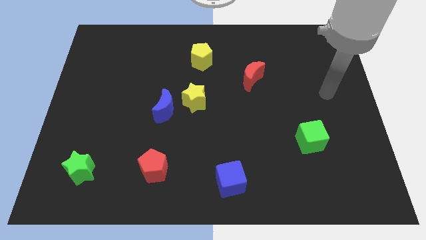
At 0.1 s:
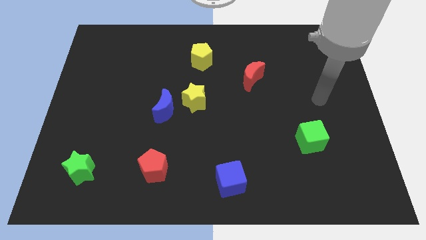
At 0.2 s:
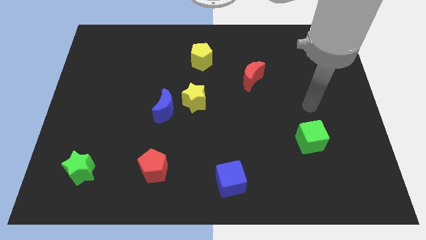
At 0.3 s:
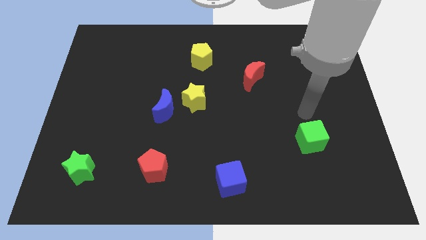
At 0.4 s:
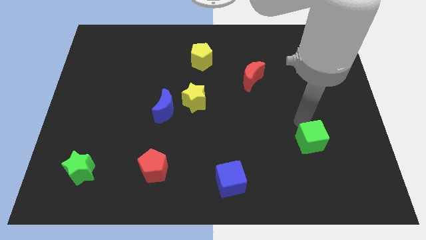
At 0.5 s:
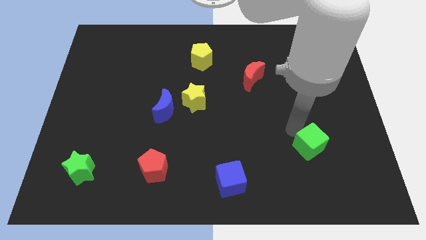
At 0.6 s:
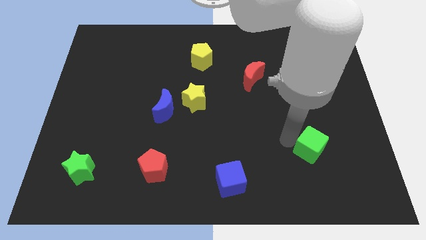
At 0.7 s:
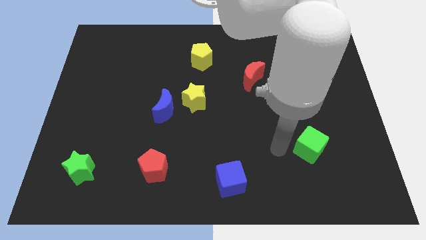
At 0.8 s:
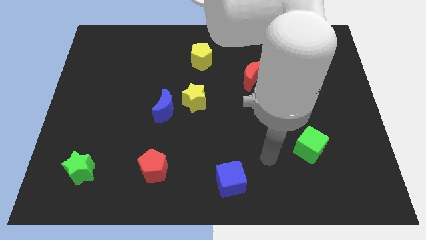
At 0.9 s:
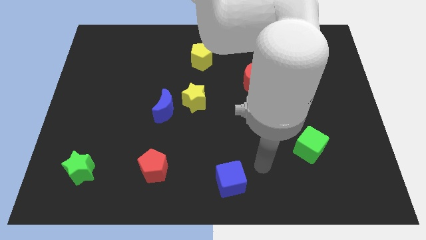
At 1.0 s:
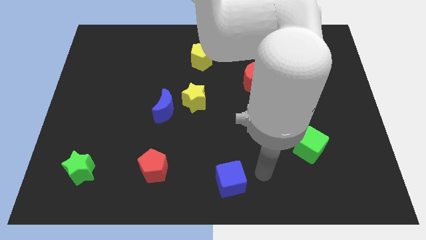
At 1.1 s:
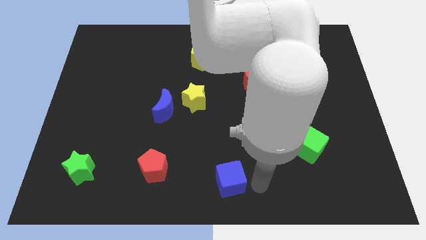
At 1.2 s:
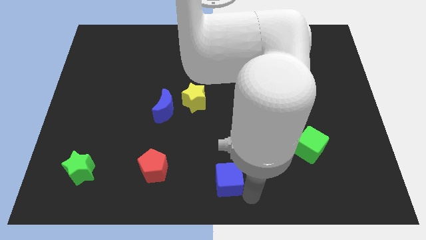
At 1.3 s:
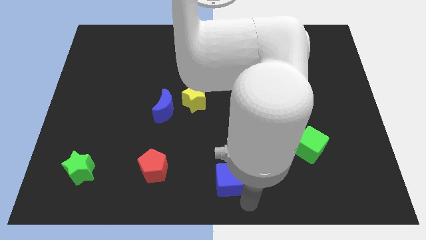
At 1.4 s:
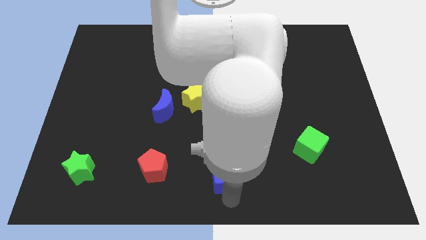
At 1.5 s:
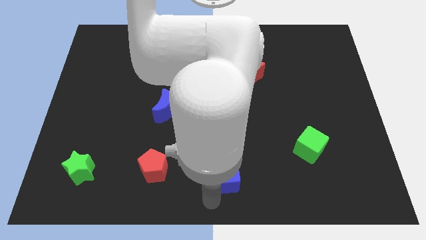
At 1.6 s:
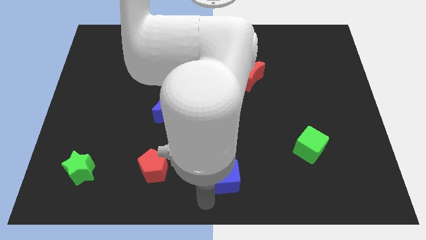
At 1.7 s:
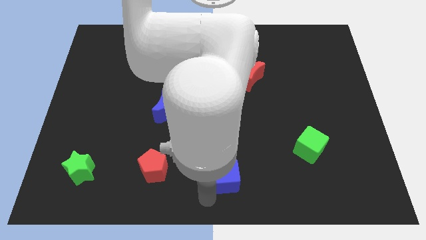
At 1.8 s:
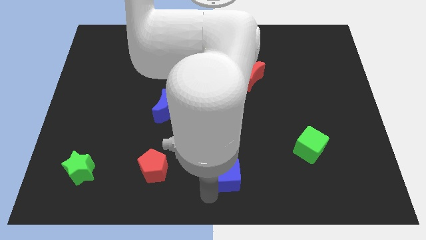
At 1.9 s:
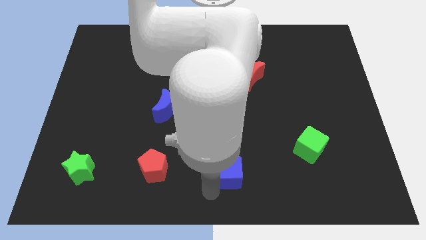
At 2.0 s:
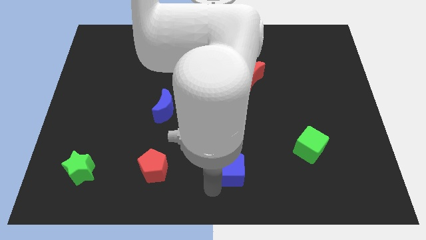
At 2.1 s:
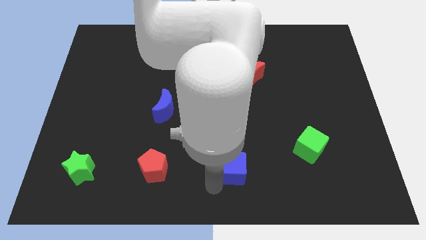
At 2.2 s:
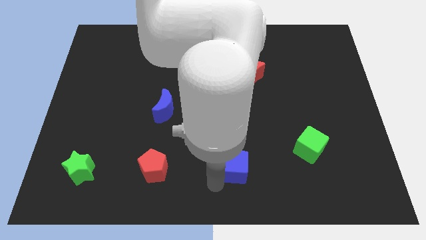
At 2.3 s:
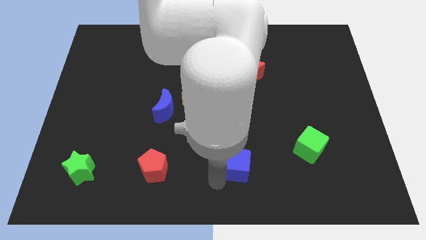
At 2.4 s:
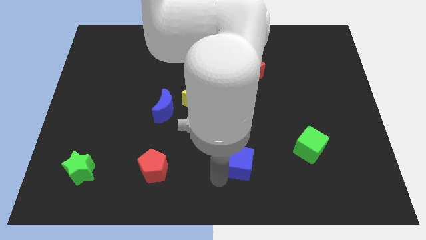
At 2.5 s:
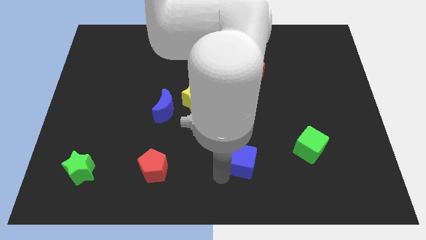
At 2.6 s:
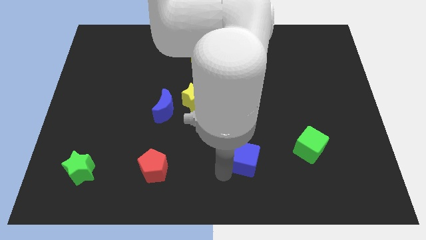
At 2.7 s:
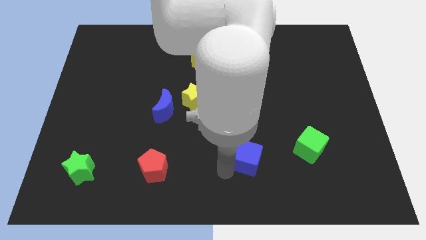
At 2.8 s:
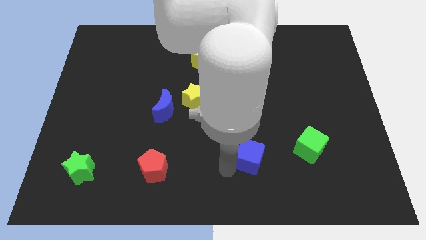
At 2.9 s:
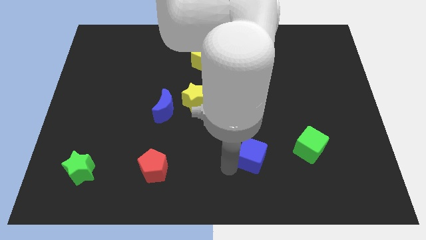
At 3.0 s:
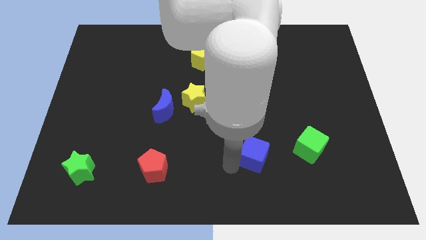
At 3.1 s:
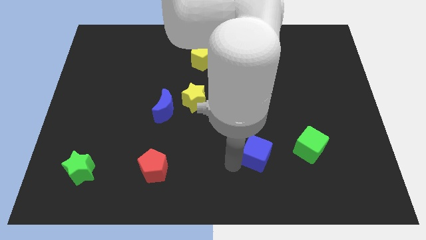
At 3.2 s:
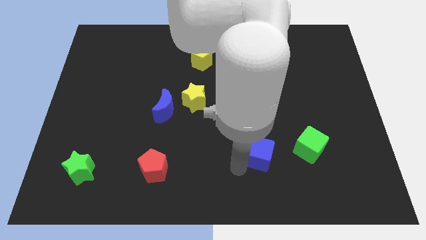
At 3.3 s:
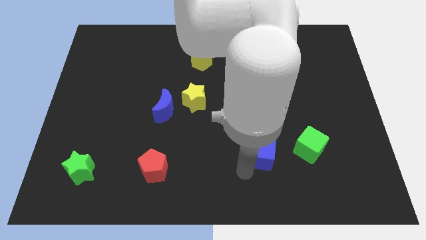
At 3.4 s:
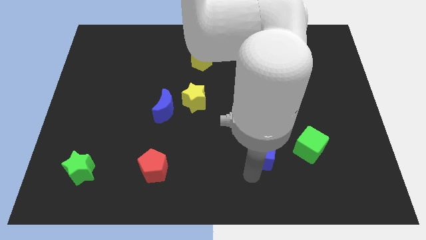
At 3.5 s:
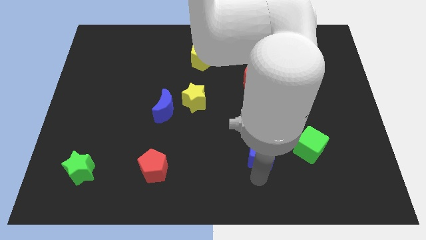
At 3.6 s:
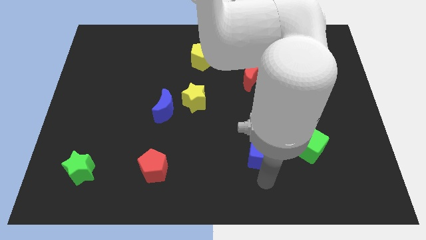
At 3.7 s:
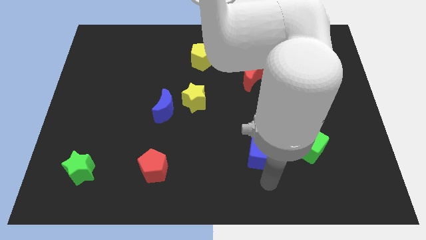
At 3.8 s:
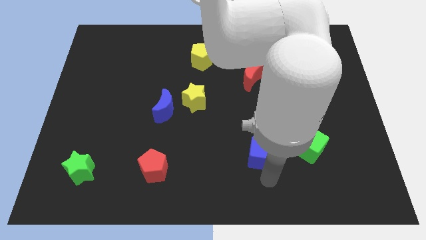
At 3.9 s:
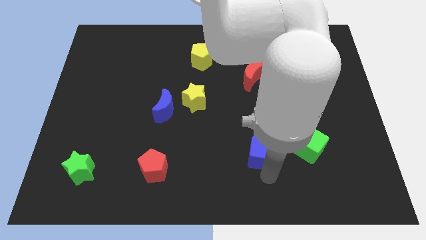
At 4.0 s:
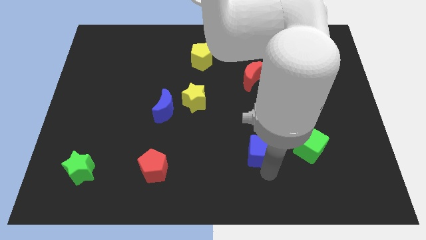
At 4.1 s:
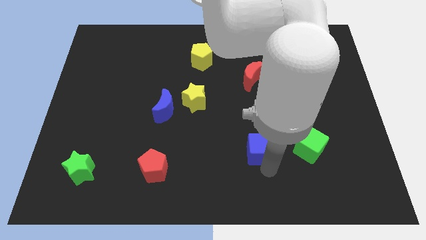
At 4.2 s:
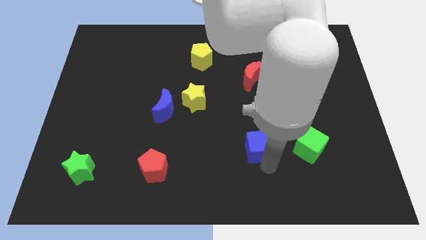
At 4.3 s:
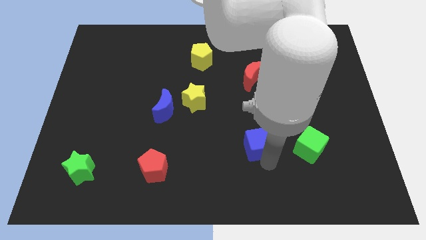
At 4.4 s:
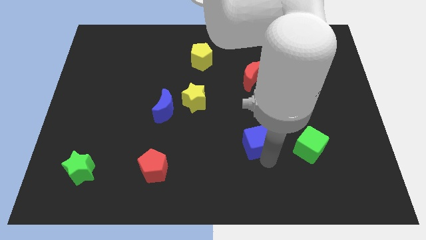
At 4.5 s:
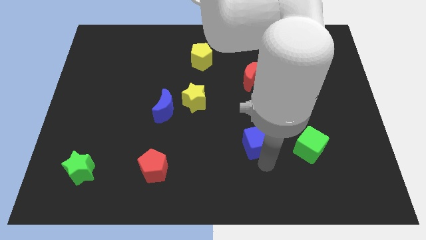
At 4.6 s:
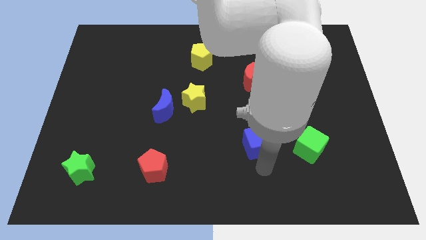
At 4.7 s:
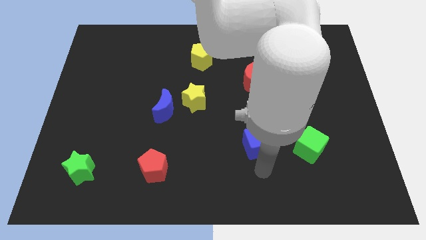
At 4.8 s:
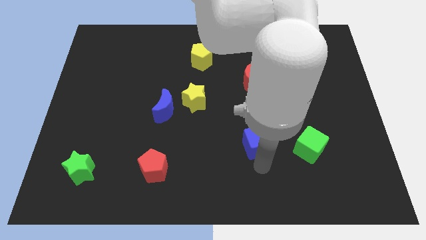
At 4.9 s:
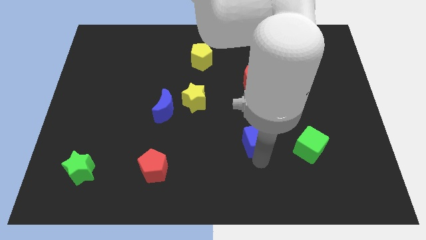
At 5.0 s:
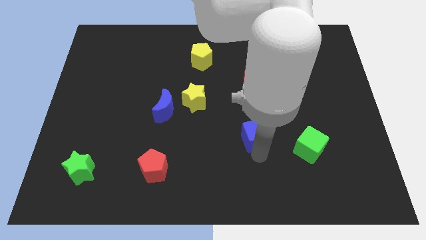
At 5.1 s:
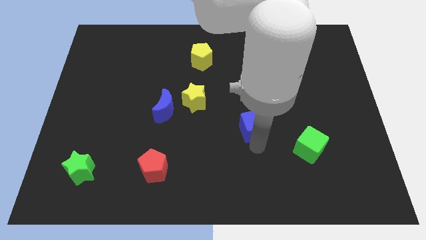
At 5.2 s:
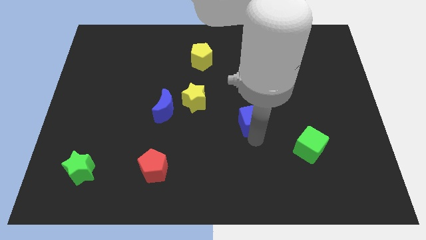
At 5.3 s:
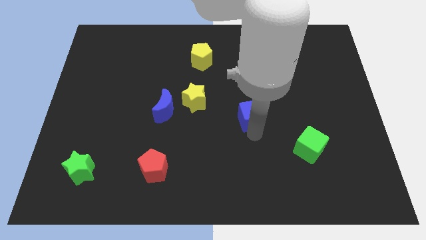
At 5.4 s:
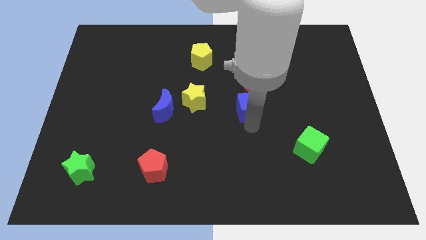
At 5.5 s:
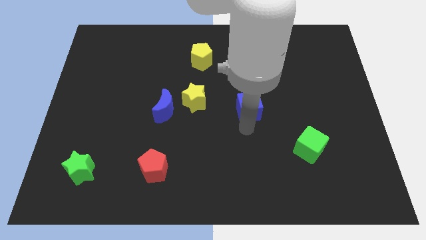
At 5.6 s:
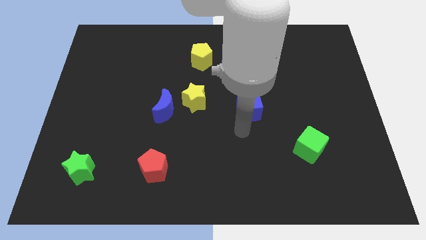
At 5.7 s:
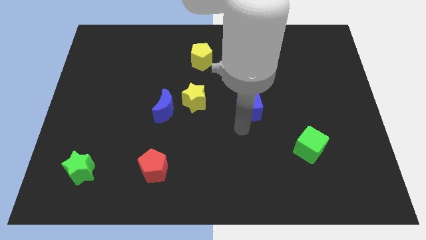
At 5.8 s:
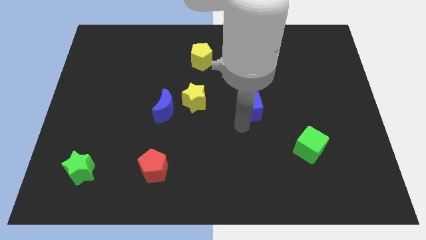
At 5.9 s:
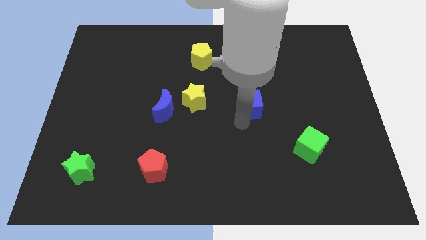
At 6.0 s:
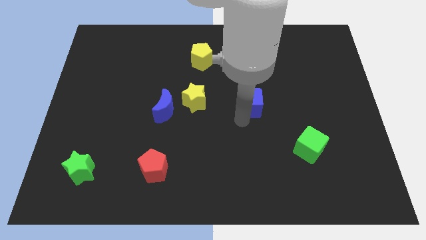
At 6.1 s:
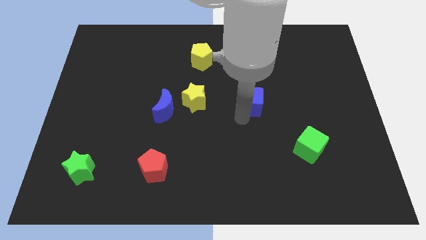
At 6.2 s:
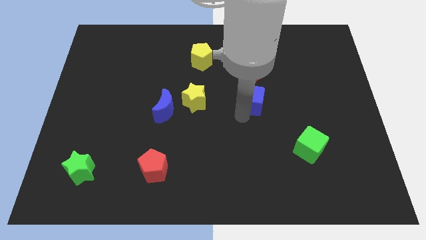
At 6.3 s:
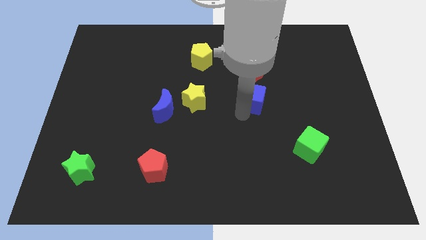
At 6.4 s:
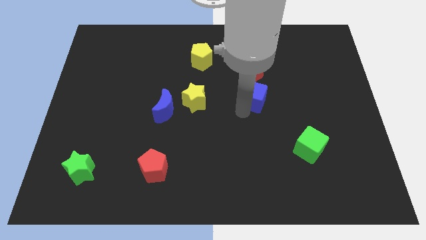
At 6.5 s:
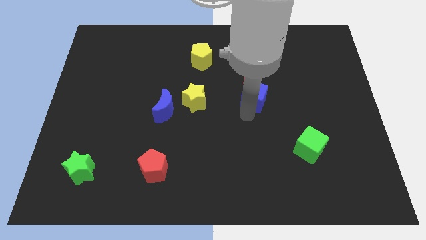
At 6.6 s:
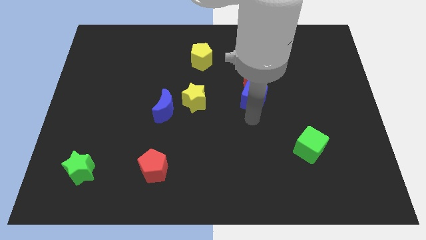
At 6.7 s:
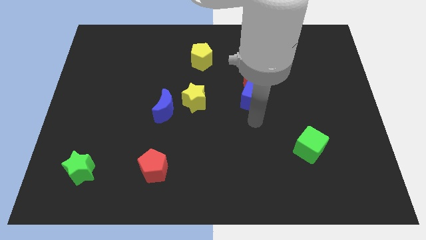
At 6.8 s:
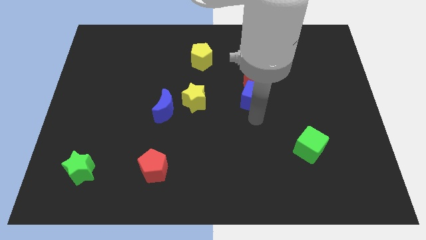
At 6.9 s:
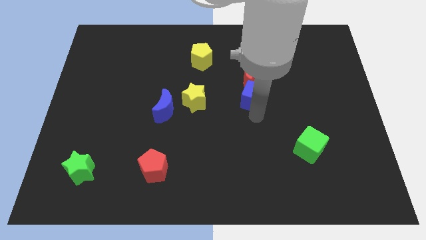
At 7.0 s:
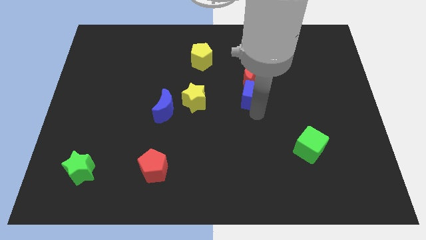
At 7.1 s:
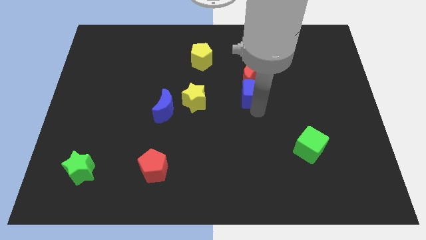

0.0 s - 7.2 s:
push the blue cube to the red moon

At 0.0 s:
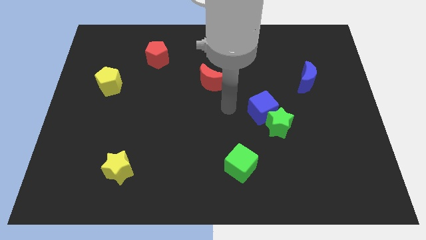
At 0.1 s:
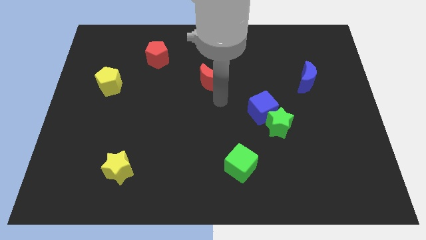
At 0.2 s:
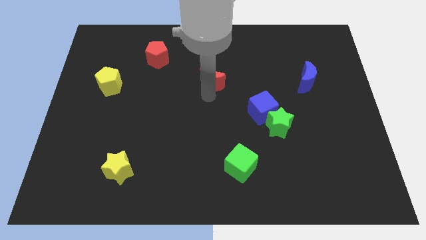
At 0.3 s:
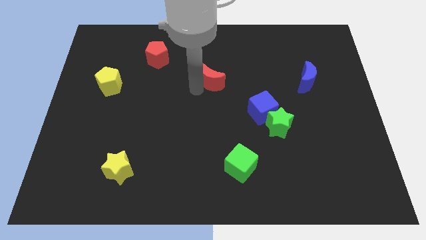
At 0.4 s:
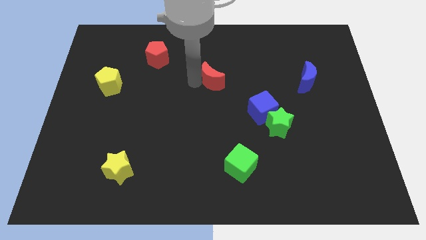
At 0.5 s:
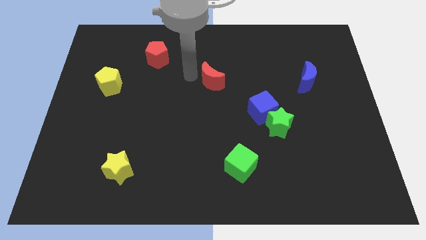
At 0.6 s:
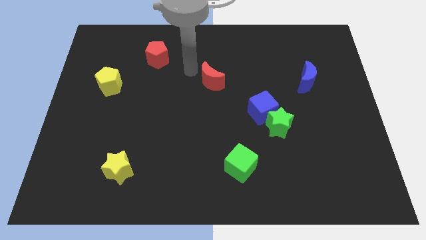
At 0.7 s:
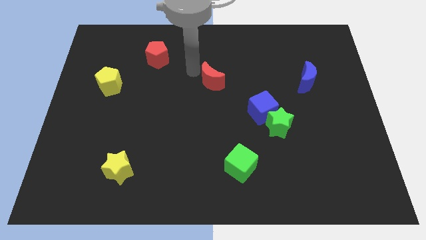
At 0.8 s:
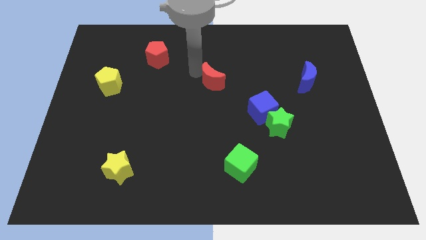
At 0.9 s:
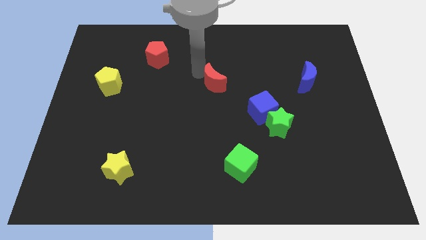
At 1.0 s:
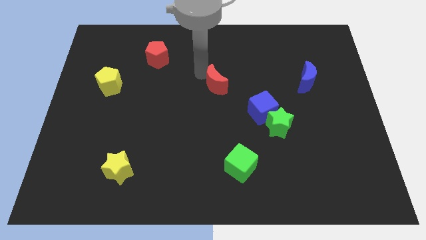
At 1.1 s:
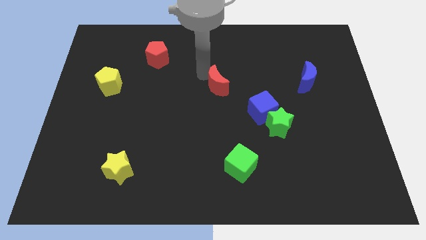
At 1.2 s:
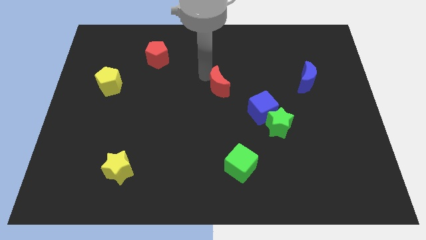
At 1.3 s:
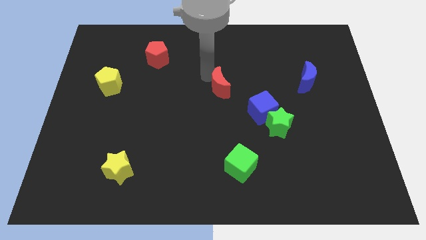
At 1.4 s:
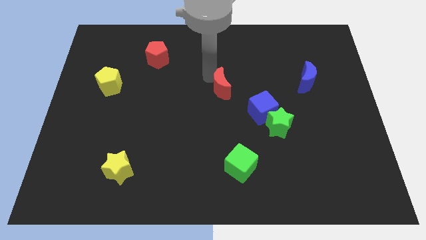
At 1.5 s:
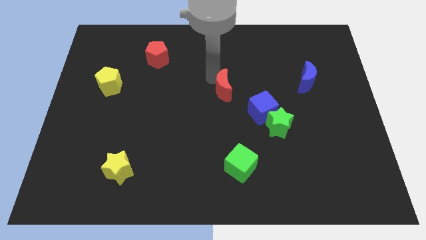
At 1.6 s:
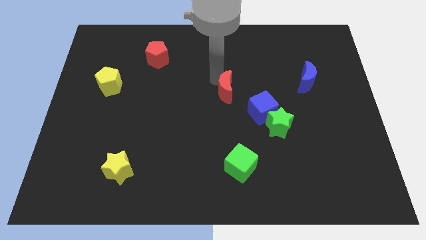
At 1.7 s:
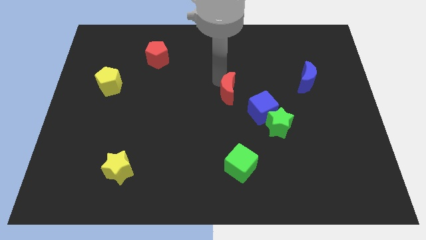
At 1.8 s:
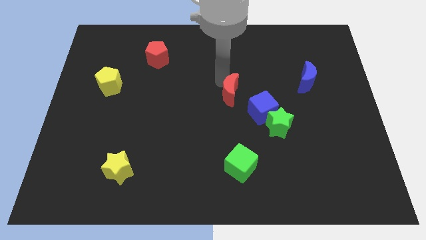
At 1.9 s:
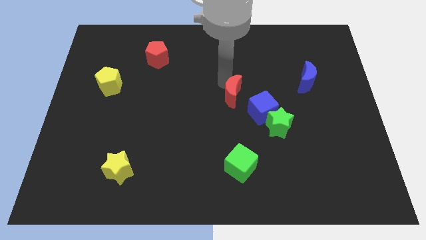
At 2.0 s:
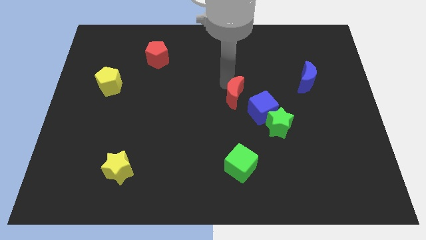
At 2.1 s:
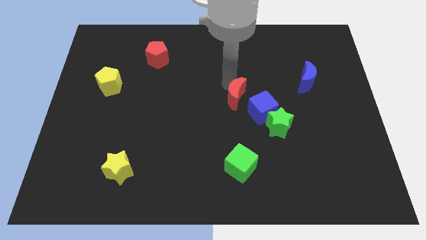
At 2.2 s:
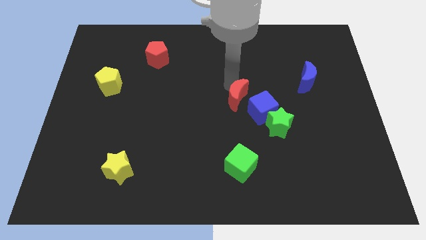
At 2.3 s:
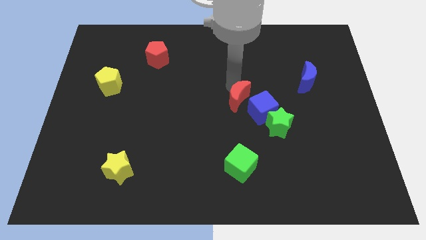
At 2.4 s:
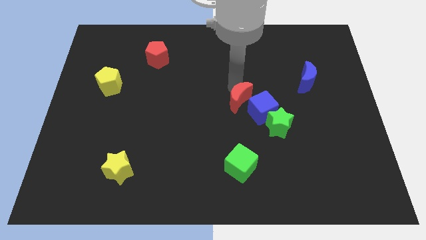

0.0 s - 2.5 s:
move the red moon towards the blue cube
